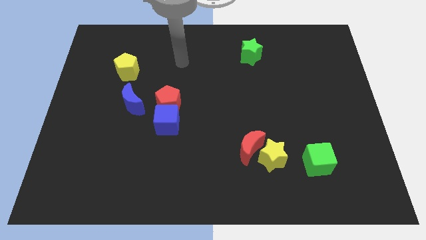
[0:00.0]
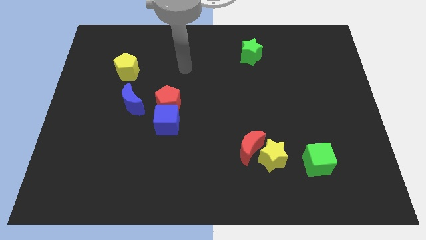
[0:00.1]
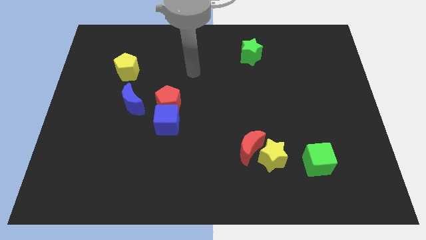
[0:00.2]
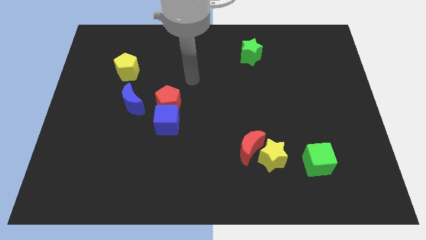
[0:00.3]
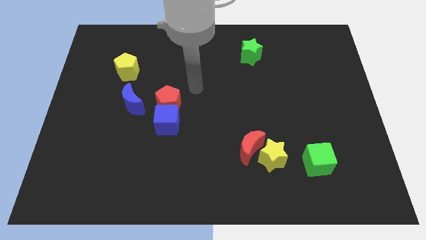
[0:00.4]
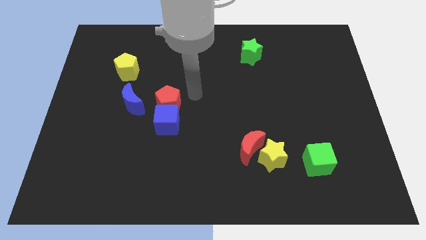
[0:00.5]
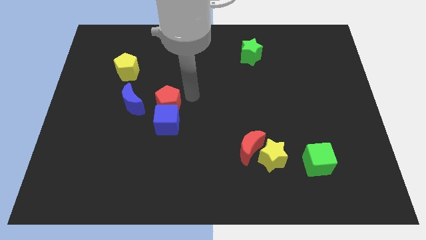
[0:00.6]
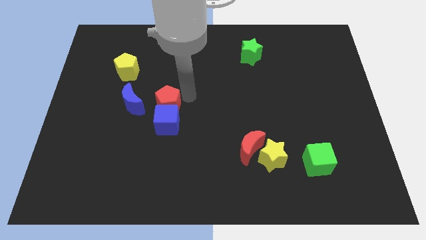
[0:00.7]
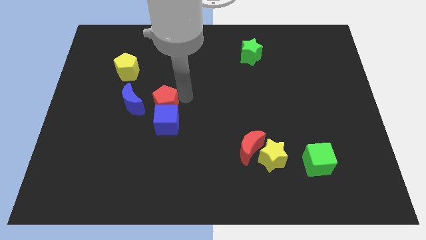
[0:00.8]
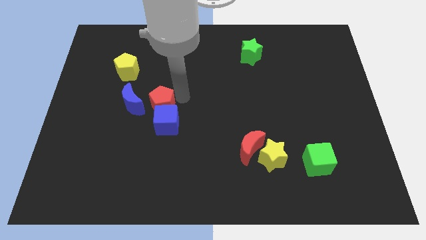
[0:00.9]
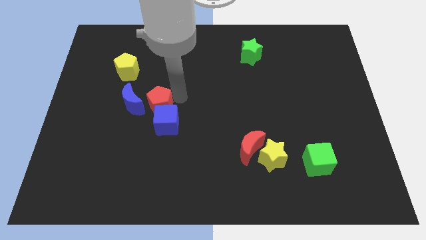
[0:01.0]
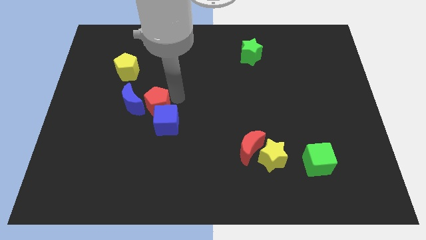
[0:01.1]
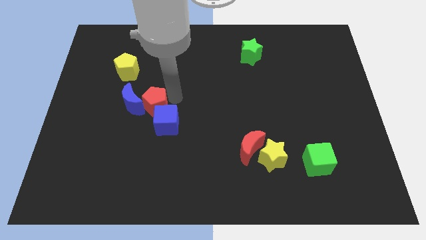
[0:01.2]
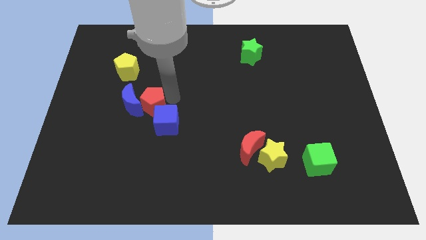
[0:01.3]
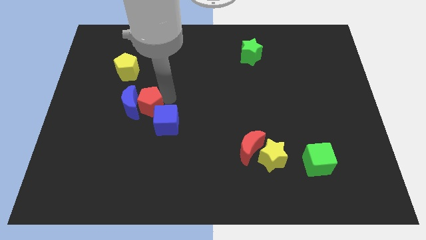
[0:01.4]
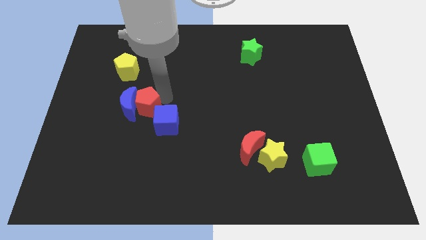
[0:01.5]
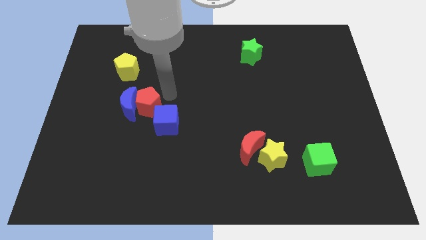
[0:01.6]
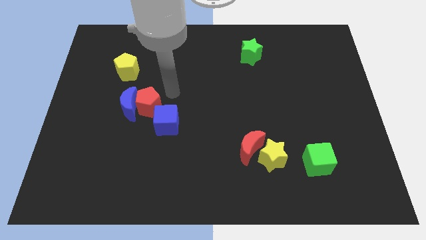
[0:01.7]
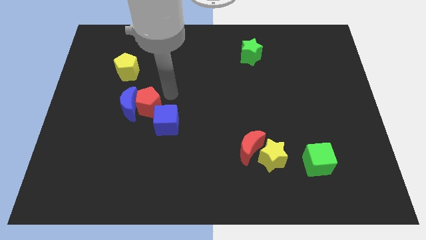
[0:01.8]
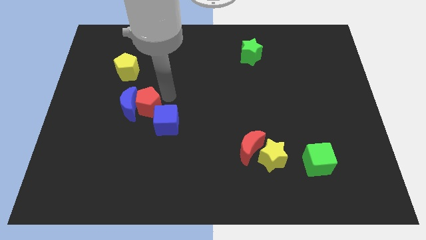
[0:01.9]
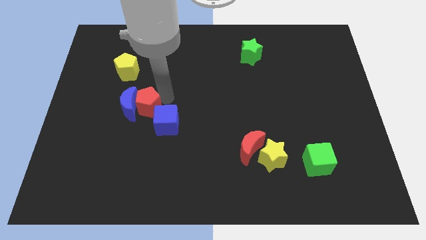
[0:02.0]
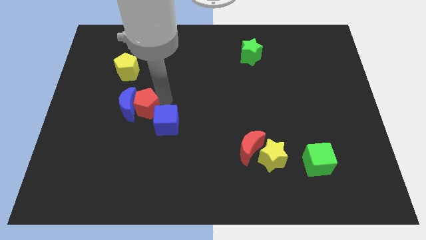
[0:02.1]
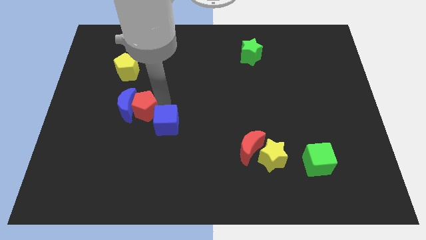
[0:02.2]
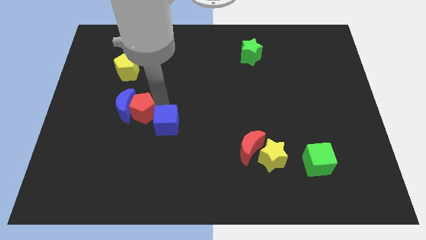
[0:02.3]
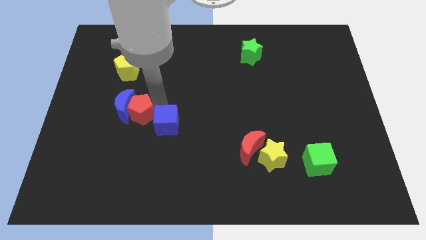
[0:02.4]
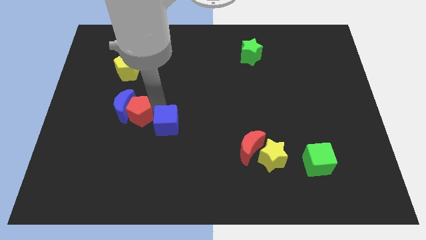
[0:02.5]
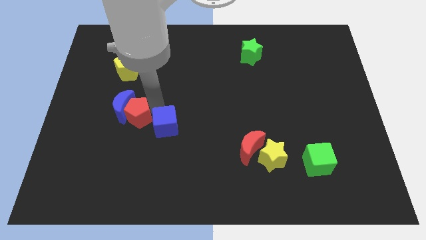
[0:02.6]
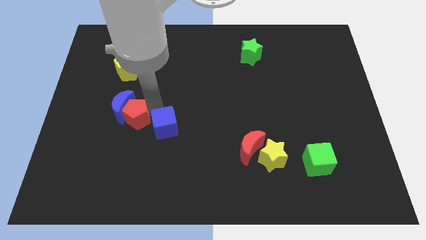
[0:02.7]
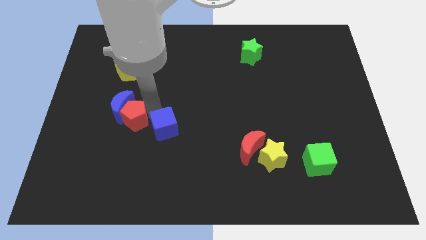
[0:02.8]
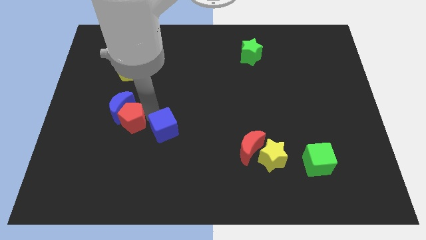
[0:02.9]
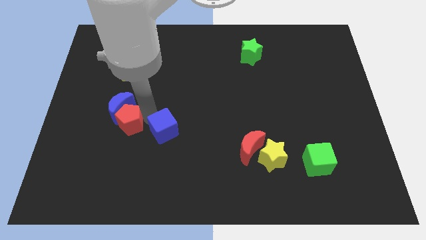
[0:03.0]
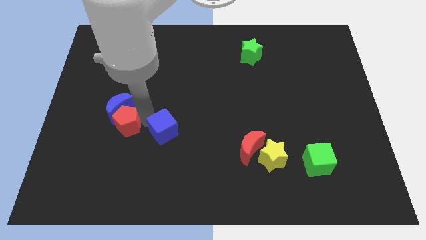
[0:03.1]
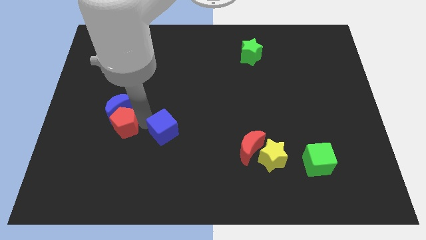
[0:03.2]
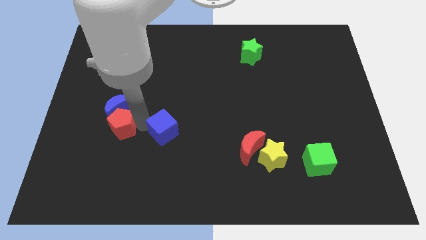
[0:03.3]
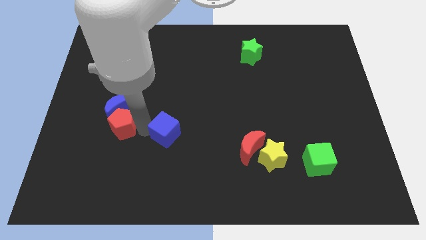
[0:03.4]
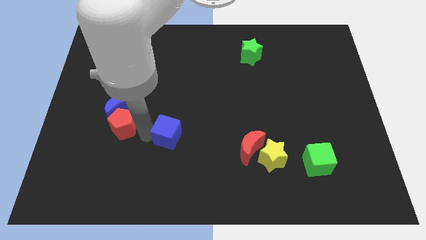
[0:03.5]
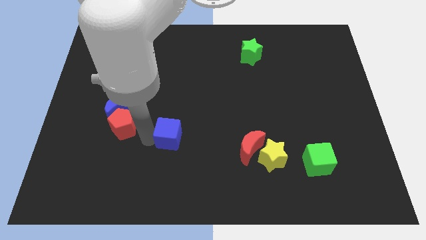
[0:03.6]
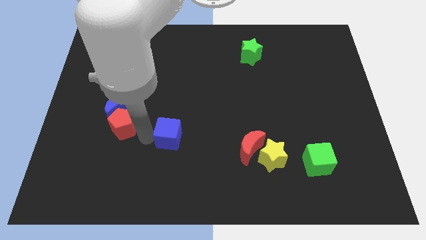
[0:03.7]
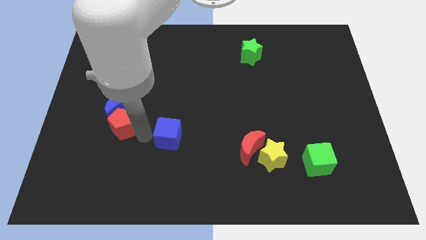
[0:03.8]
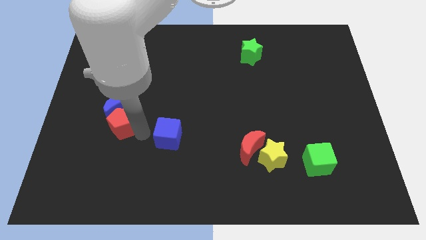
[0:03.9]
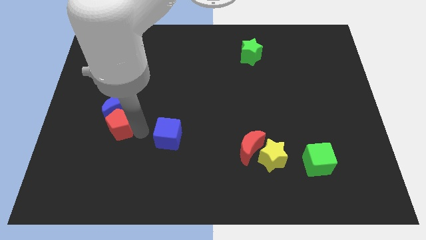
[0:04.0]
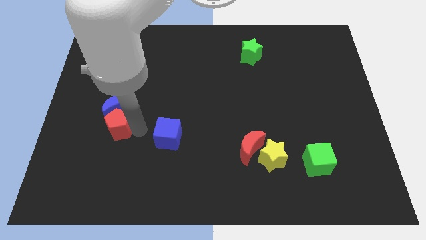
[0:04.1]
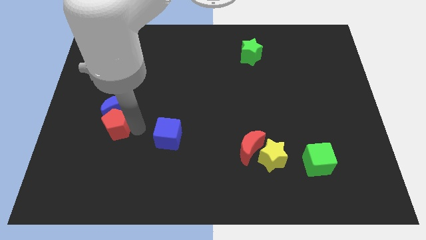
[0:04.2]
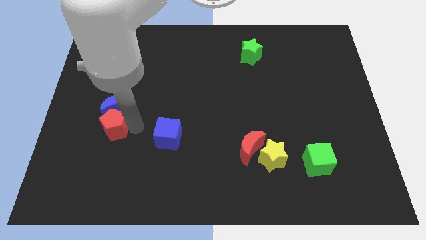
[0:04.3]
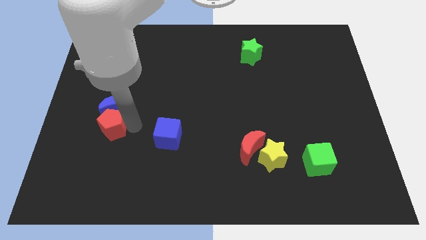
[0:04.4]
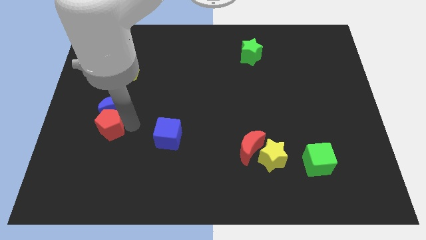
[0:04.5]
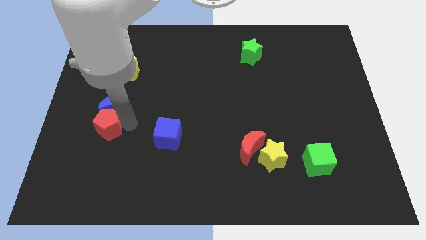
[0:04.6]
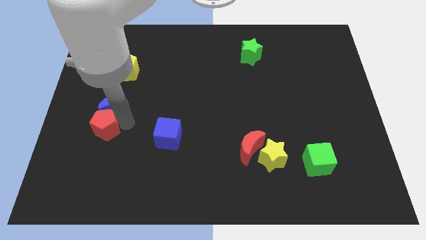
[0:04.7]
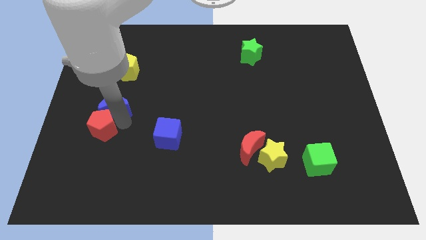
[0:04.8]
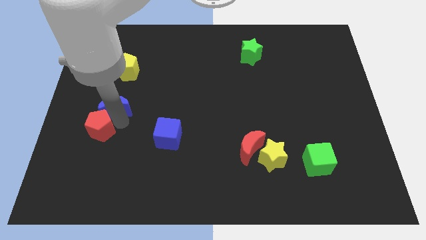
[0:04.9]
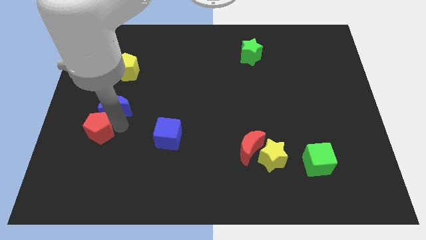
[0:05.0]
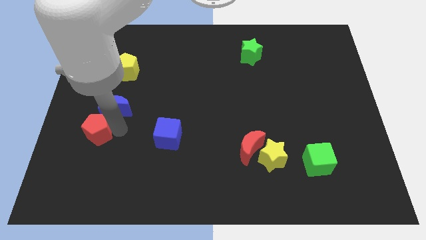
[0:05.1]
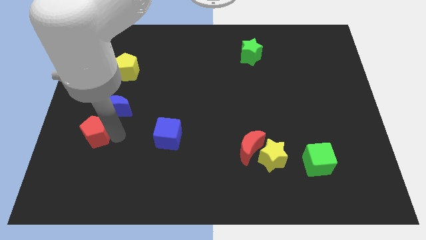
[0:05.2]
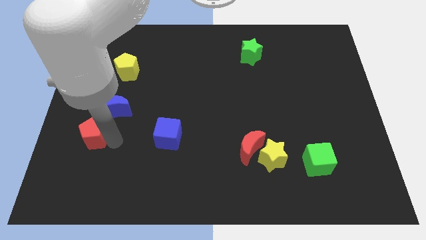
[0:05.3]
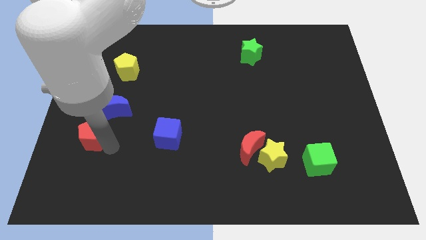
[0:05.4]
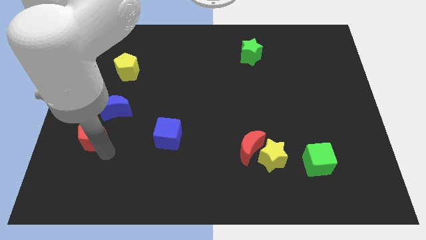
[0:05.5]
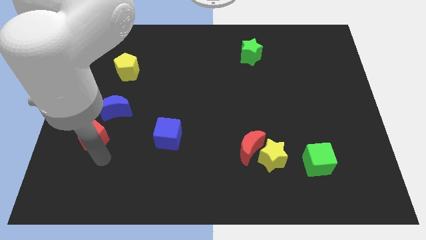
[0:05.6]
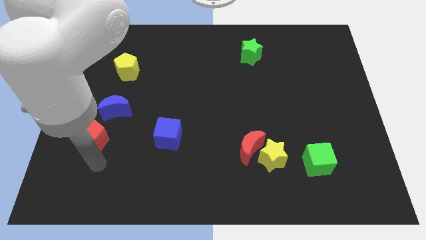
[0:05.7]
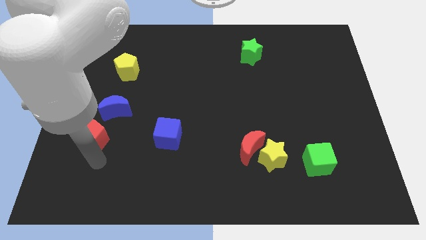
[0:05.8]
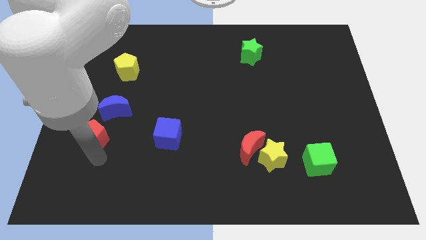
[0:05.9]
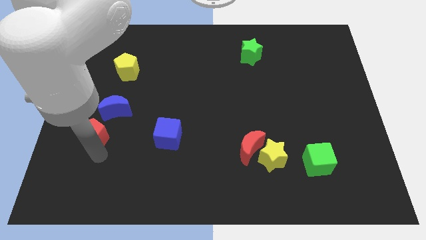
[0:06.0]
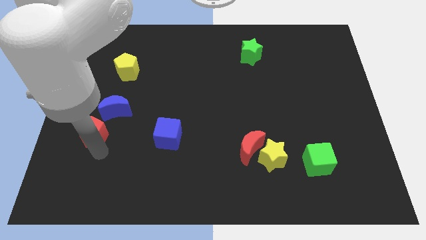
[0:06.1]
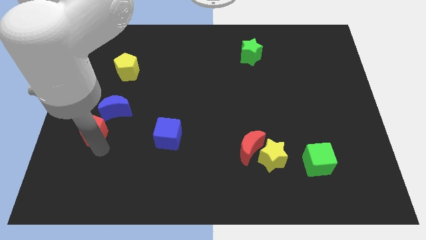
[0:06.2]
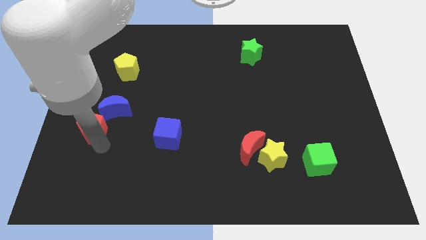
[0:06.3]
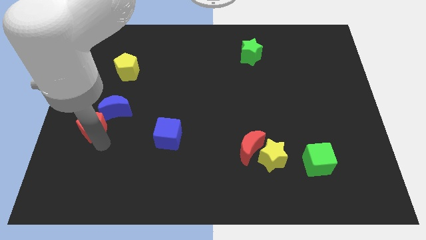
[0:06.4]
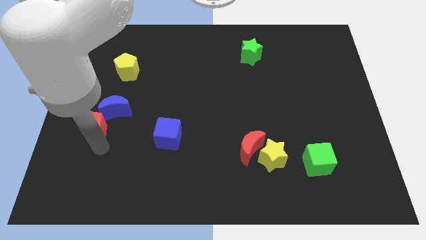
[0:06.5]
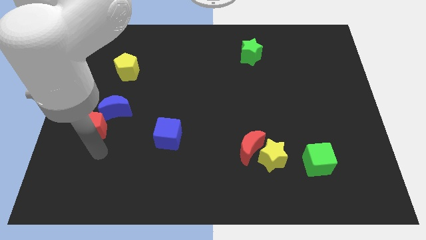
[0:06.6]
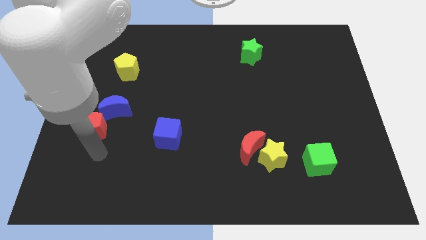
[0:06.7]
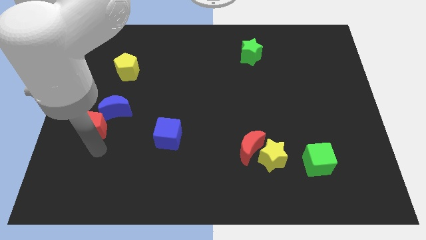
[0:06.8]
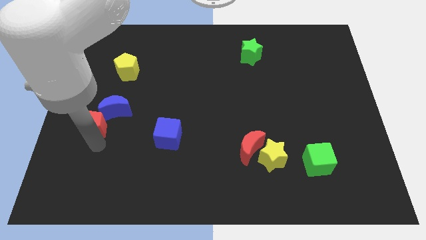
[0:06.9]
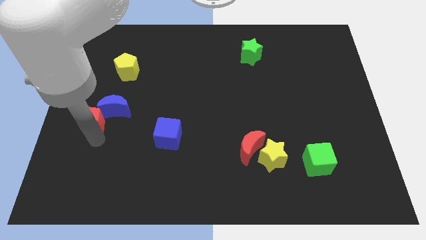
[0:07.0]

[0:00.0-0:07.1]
slide the red pentagon to the center left
